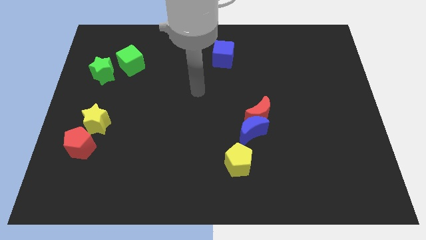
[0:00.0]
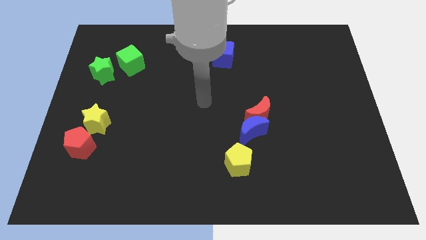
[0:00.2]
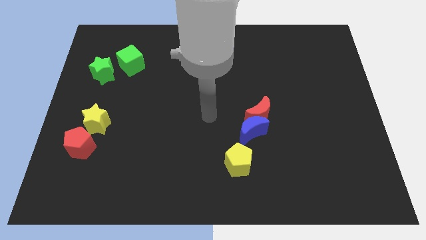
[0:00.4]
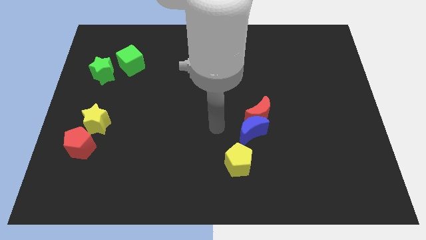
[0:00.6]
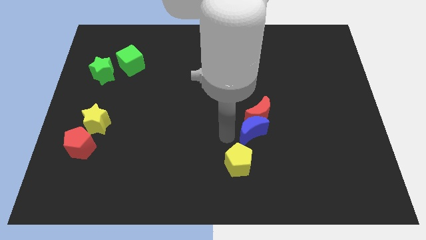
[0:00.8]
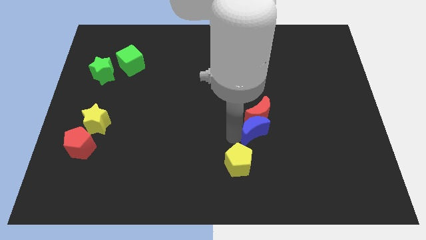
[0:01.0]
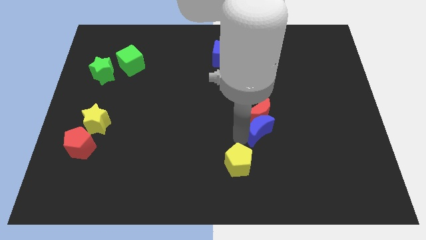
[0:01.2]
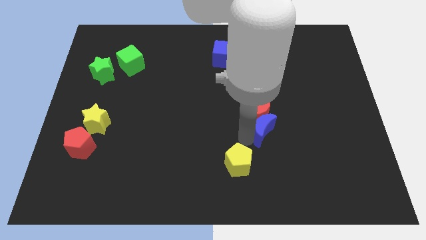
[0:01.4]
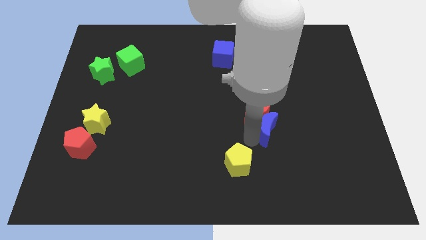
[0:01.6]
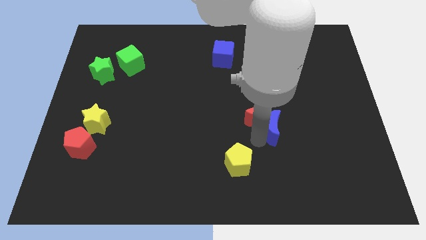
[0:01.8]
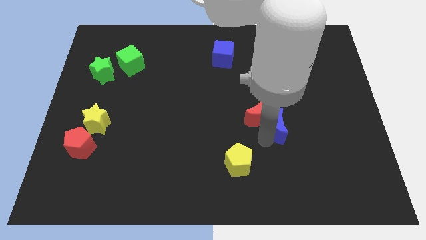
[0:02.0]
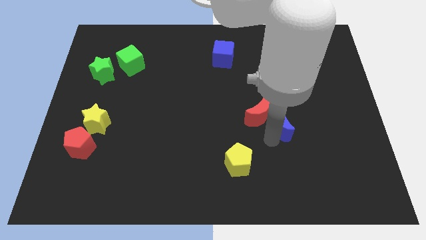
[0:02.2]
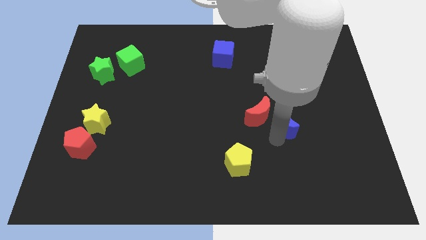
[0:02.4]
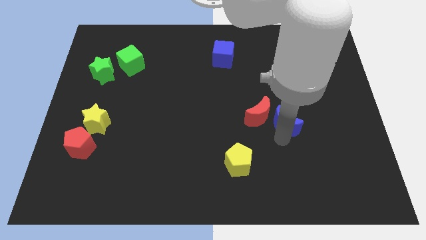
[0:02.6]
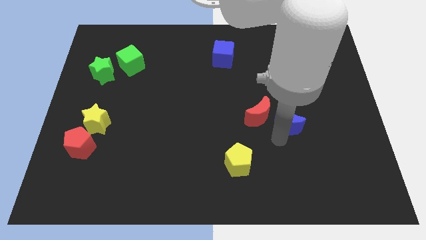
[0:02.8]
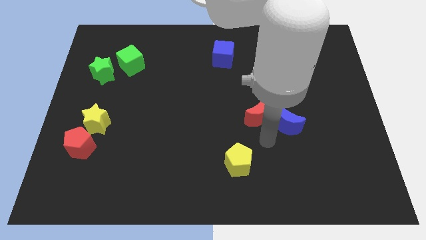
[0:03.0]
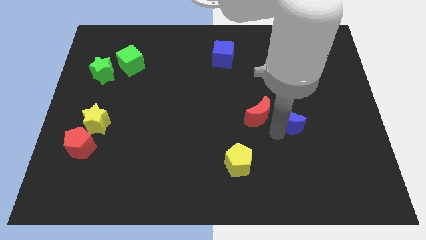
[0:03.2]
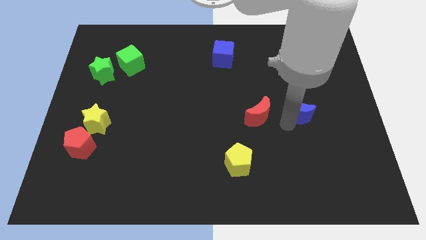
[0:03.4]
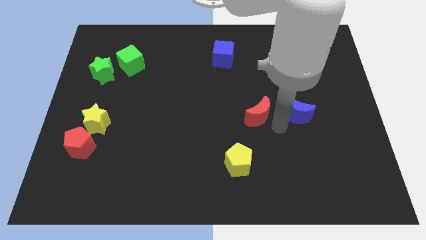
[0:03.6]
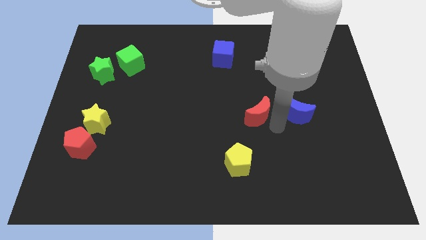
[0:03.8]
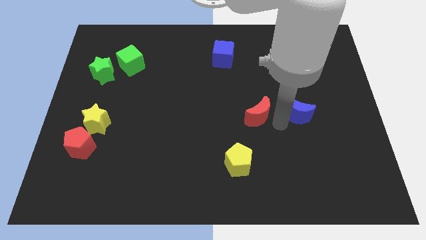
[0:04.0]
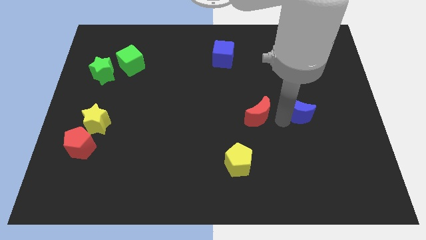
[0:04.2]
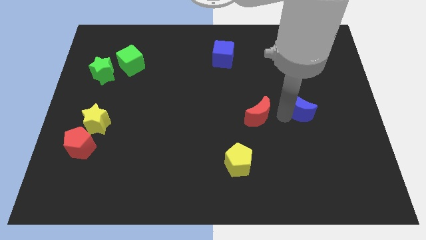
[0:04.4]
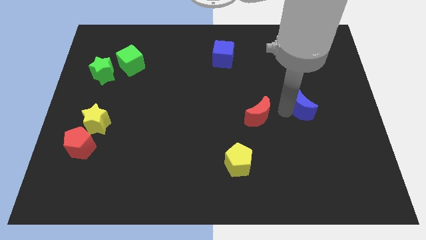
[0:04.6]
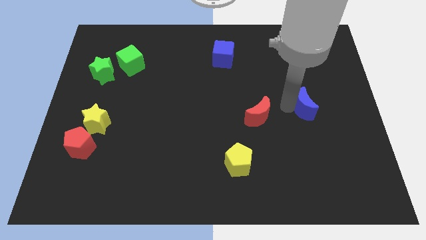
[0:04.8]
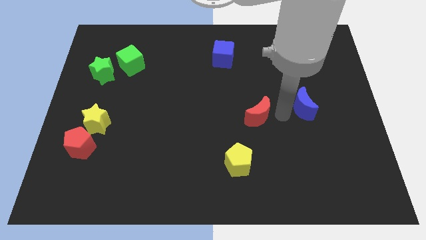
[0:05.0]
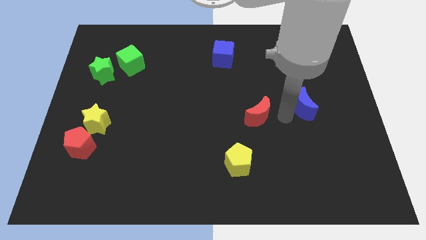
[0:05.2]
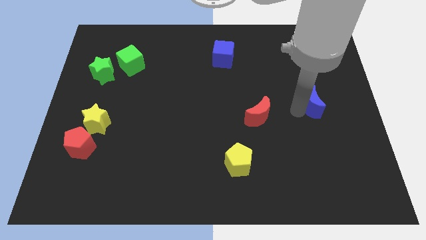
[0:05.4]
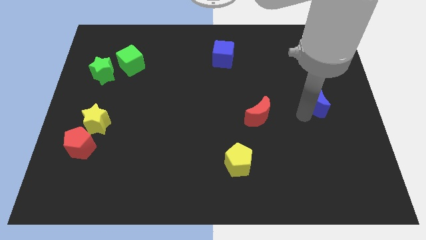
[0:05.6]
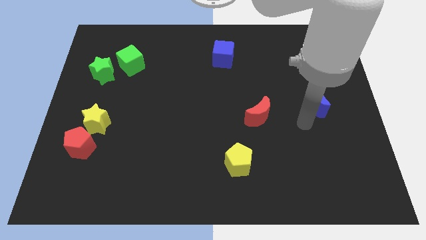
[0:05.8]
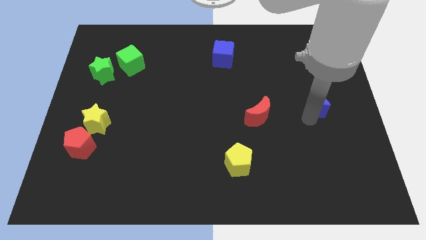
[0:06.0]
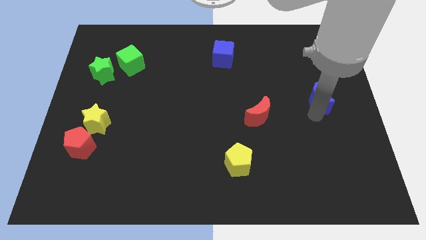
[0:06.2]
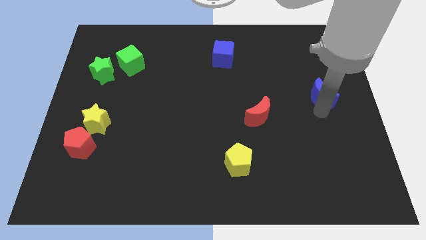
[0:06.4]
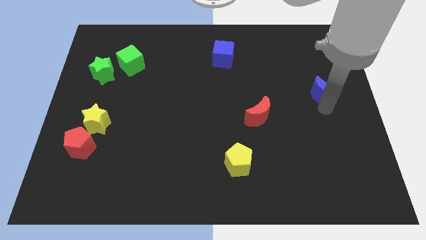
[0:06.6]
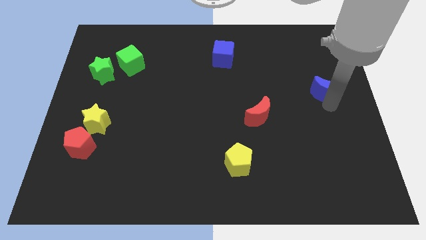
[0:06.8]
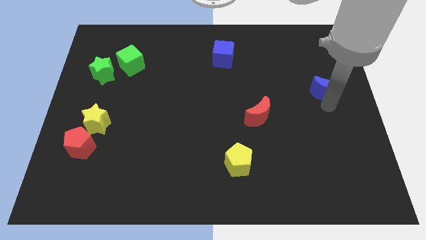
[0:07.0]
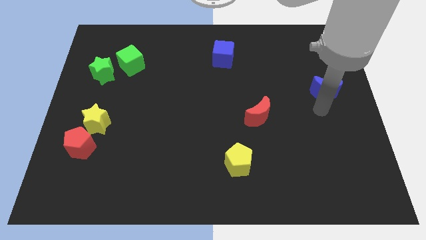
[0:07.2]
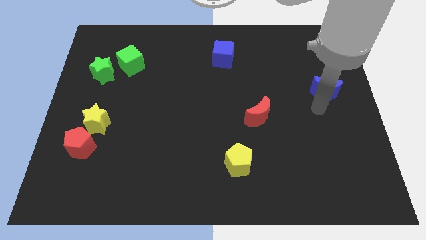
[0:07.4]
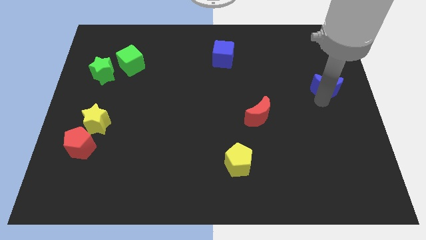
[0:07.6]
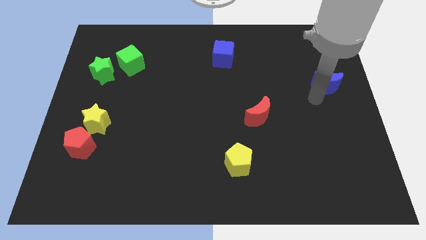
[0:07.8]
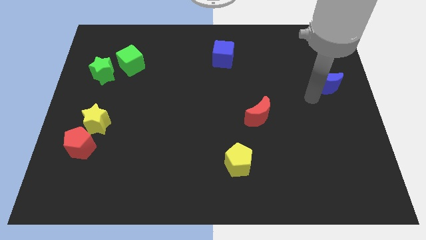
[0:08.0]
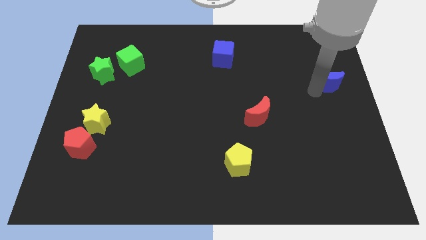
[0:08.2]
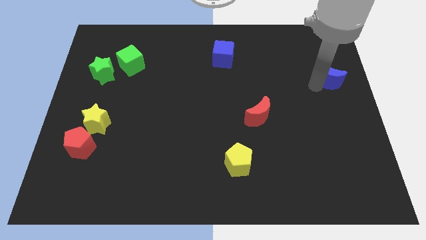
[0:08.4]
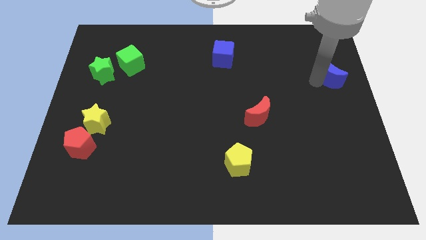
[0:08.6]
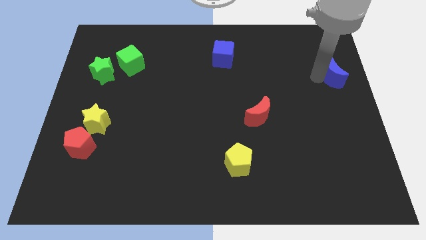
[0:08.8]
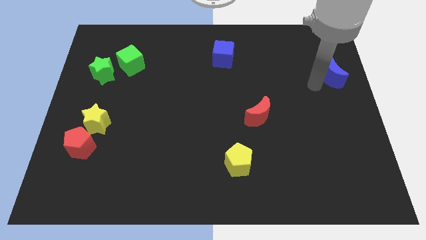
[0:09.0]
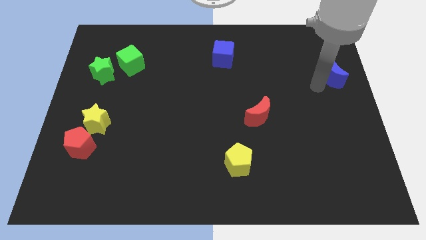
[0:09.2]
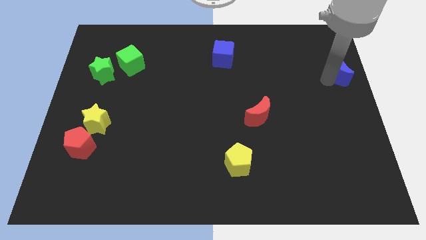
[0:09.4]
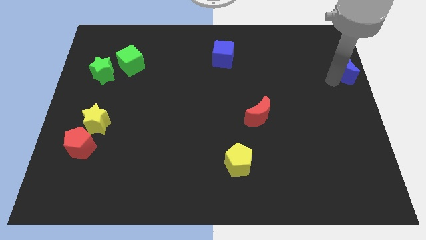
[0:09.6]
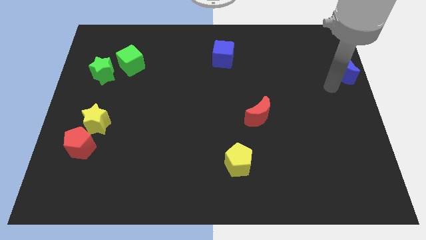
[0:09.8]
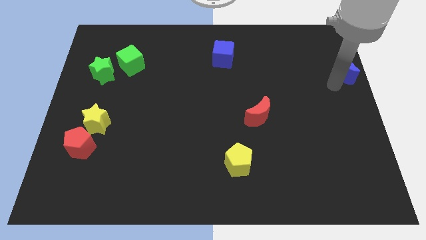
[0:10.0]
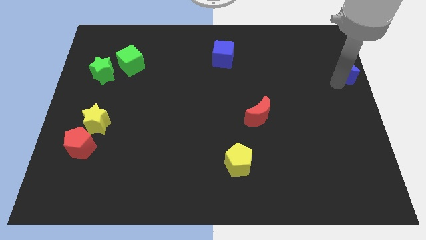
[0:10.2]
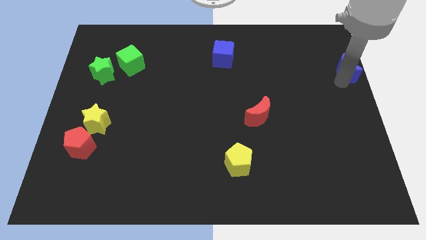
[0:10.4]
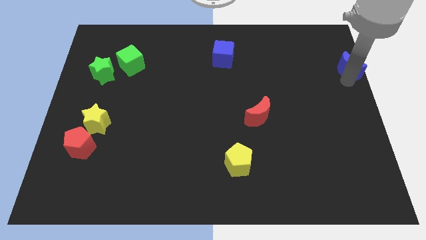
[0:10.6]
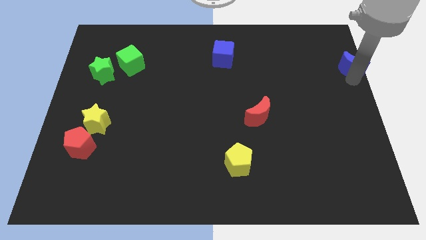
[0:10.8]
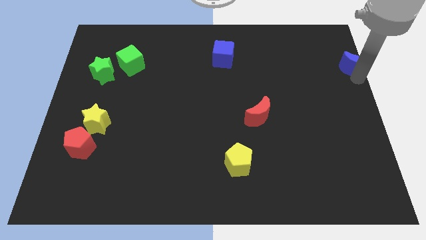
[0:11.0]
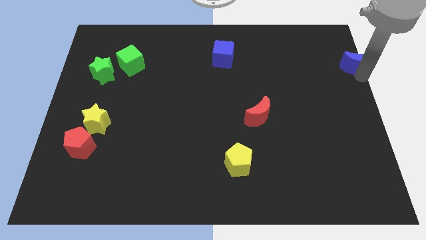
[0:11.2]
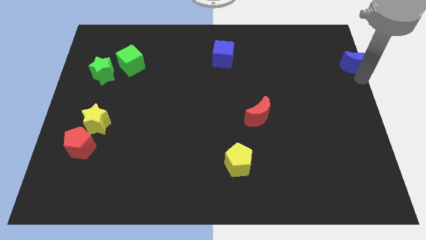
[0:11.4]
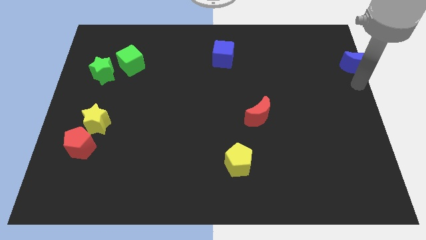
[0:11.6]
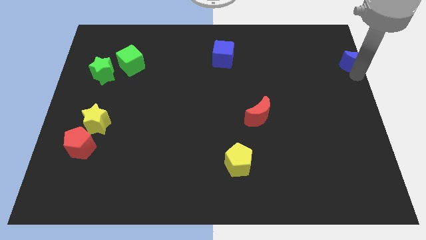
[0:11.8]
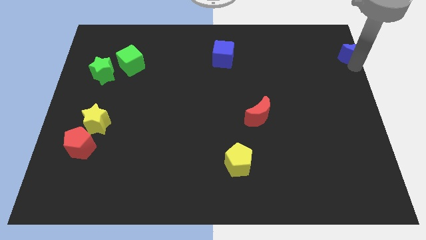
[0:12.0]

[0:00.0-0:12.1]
slide the blue moon to the upper right corner

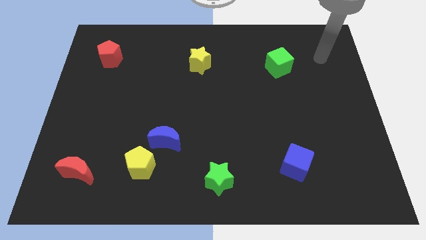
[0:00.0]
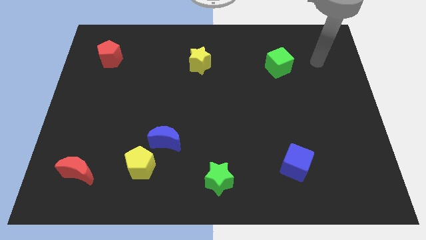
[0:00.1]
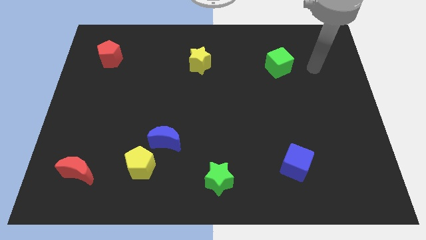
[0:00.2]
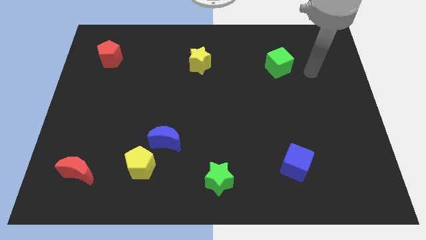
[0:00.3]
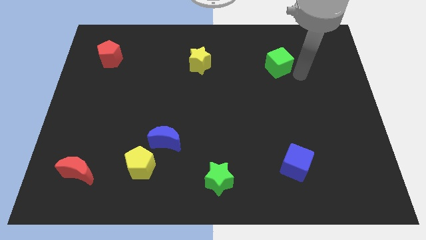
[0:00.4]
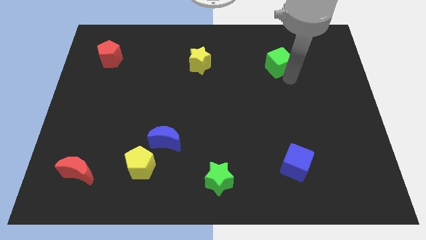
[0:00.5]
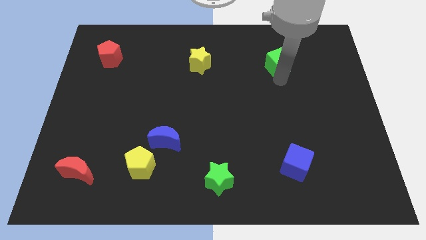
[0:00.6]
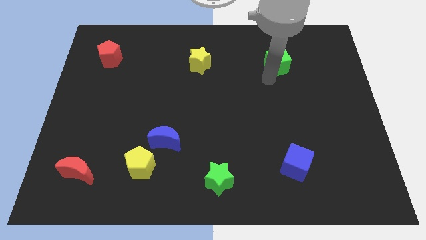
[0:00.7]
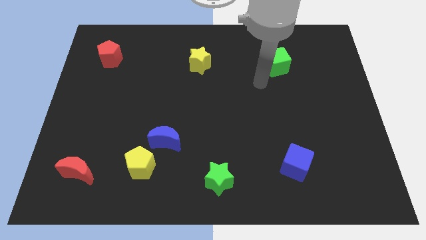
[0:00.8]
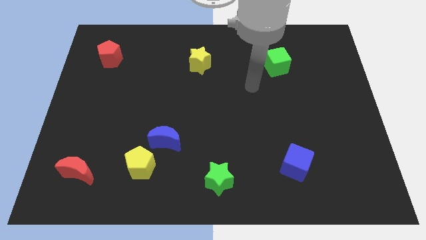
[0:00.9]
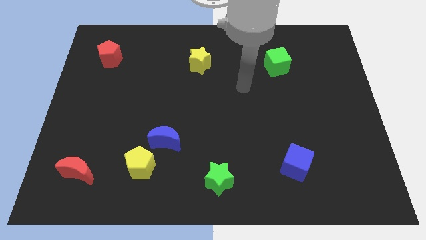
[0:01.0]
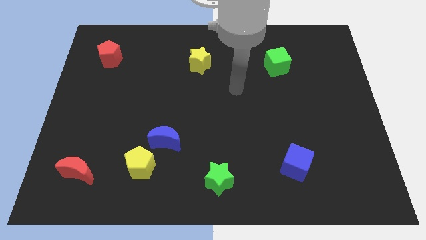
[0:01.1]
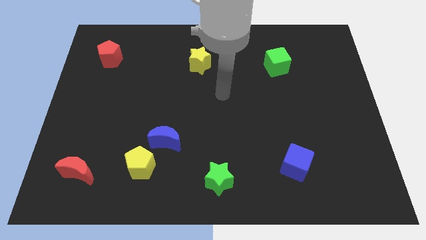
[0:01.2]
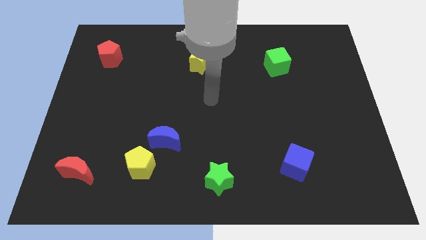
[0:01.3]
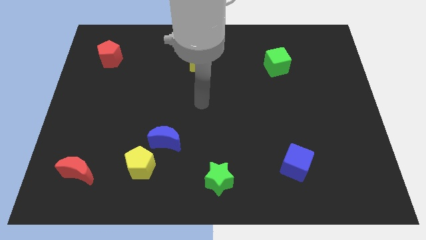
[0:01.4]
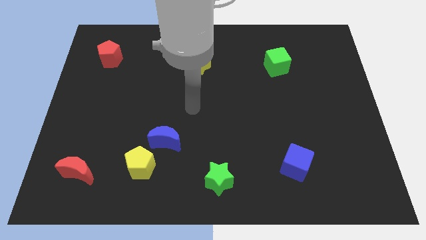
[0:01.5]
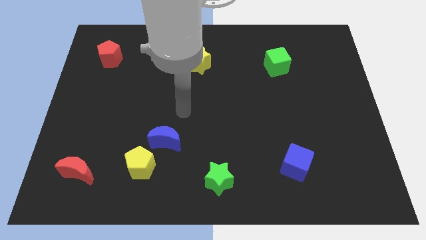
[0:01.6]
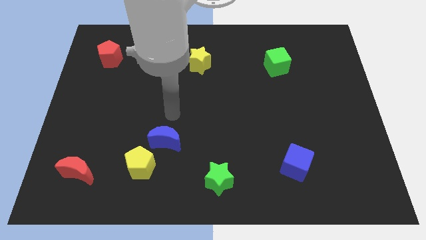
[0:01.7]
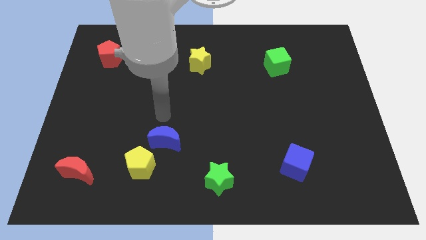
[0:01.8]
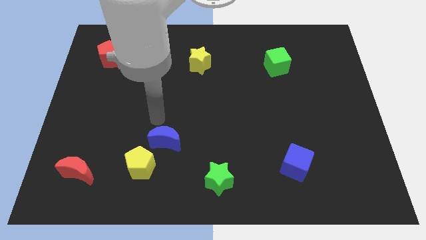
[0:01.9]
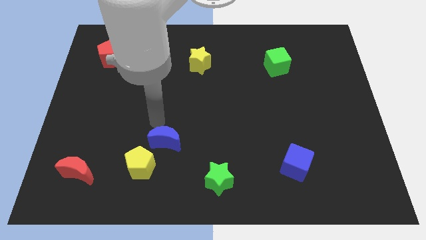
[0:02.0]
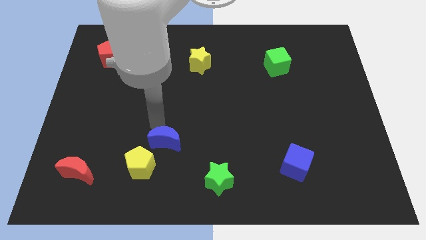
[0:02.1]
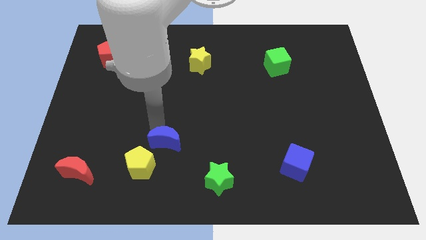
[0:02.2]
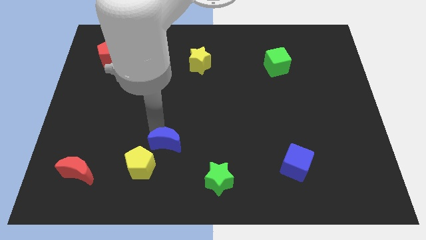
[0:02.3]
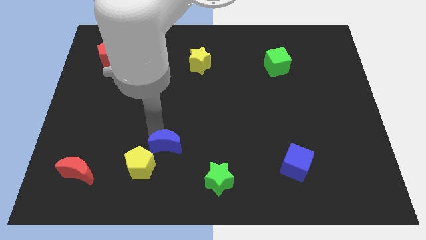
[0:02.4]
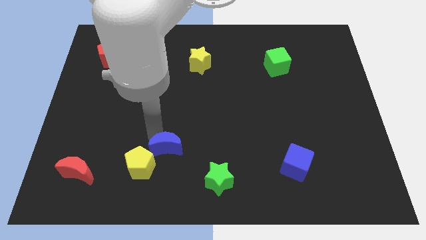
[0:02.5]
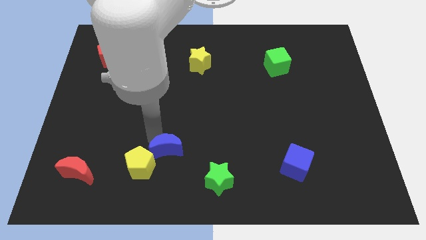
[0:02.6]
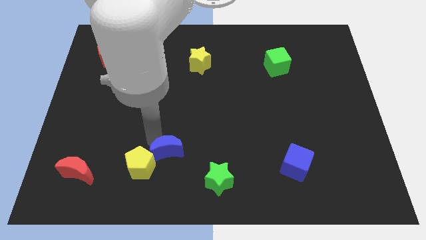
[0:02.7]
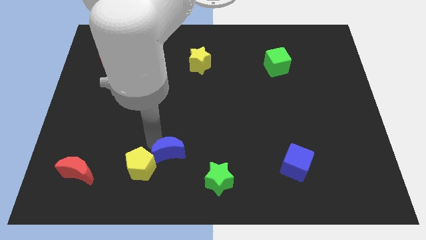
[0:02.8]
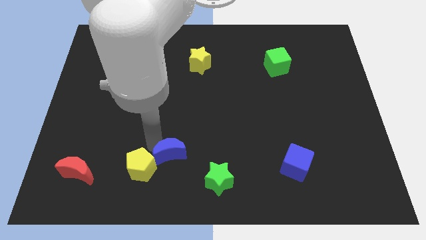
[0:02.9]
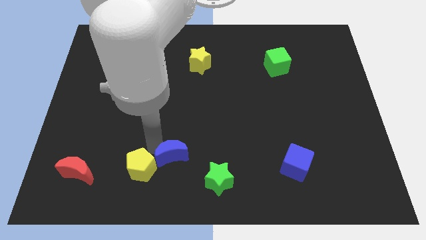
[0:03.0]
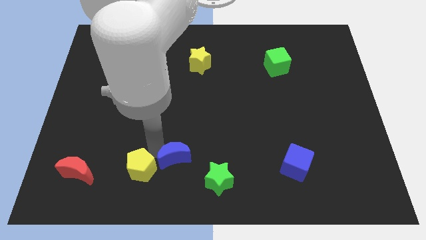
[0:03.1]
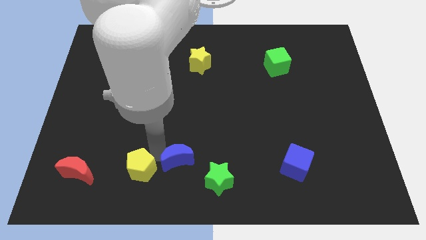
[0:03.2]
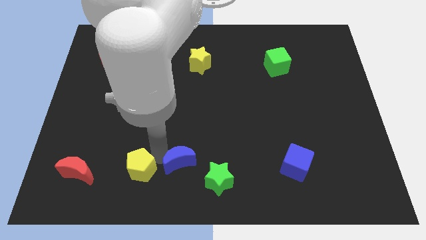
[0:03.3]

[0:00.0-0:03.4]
push the blue moon to the bottom side
